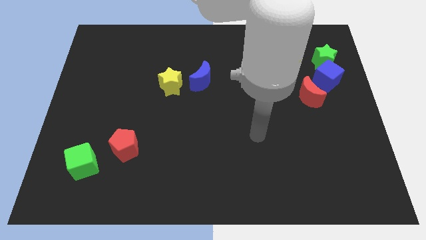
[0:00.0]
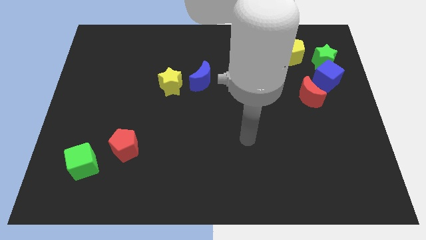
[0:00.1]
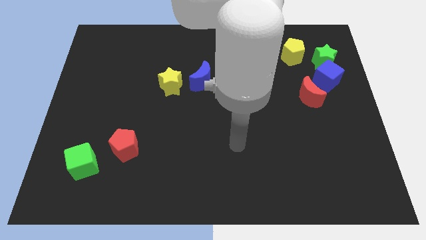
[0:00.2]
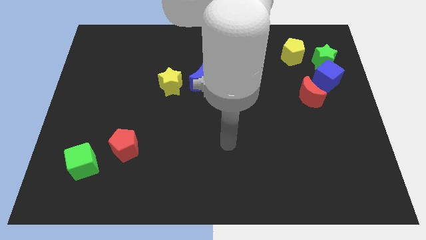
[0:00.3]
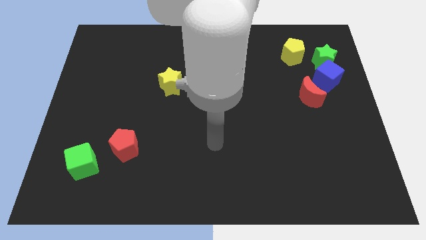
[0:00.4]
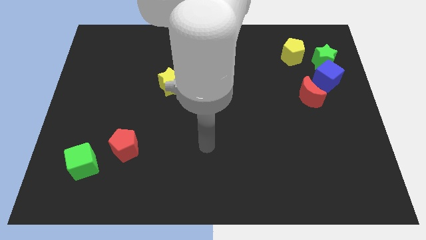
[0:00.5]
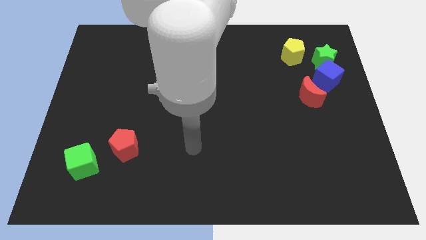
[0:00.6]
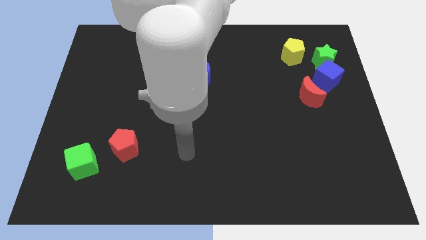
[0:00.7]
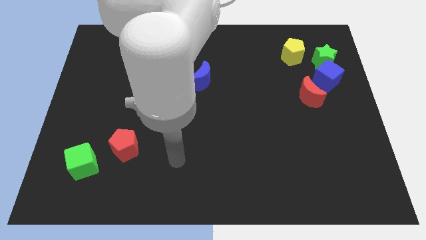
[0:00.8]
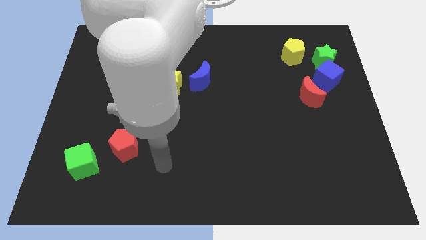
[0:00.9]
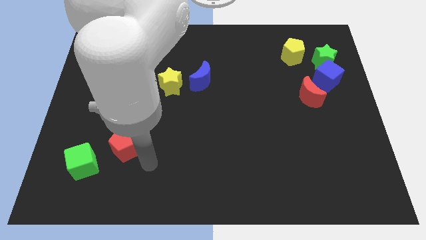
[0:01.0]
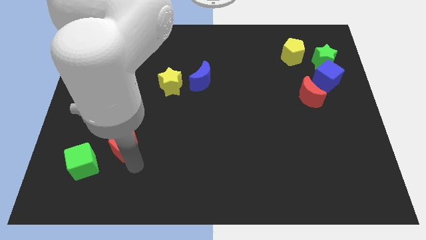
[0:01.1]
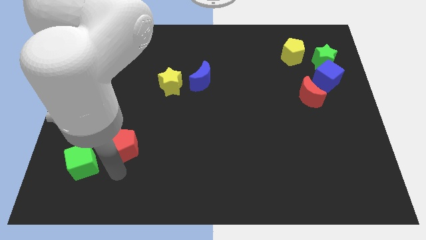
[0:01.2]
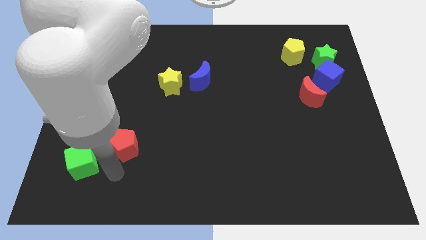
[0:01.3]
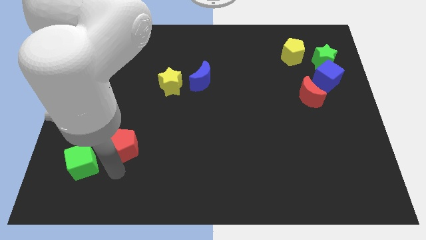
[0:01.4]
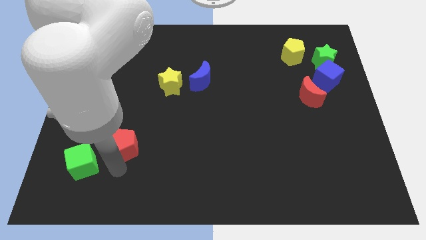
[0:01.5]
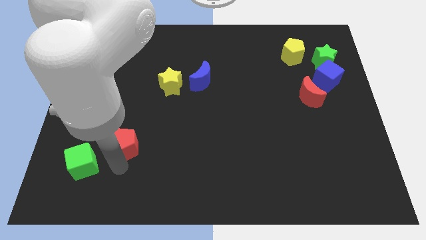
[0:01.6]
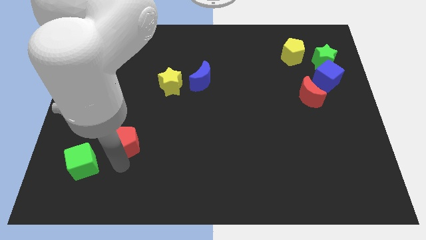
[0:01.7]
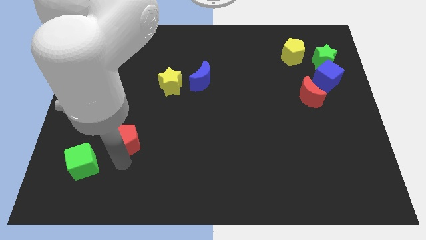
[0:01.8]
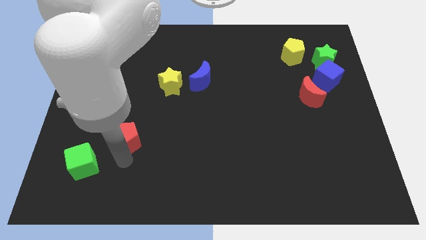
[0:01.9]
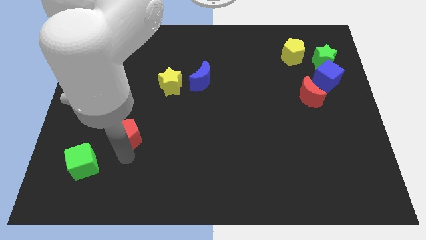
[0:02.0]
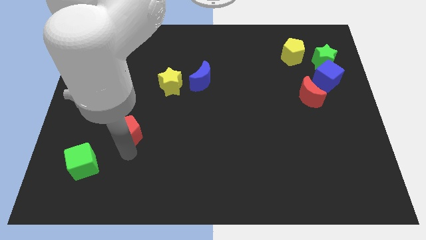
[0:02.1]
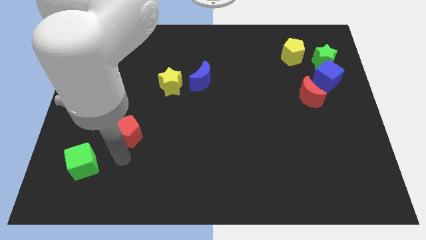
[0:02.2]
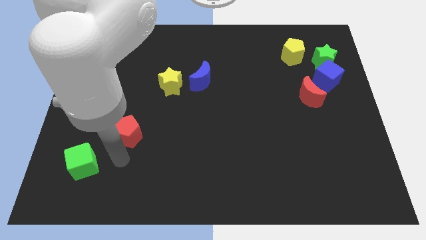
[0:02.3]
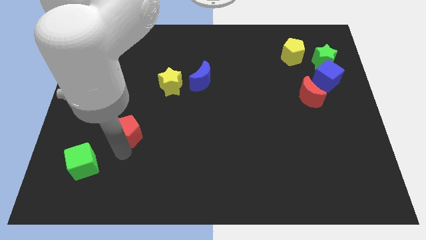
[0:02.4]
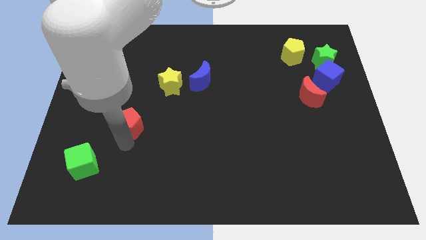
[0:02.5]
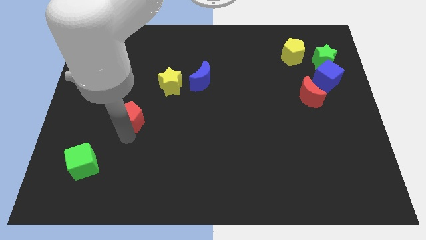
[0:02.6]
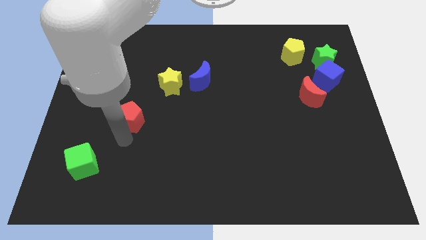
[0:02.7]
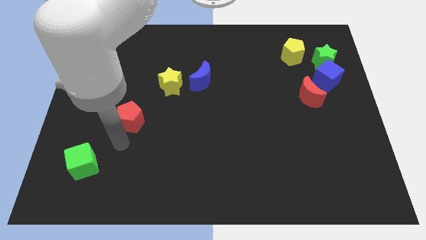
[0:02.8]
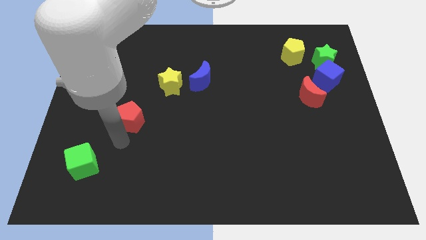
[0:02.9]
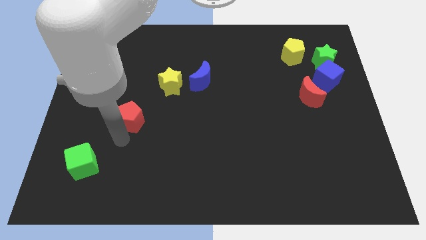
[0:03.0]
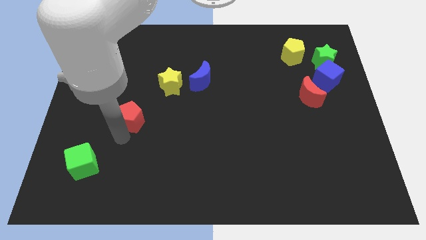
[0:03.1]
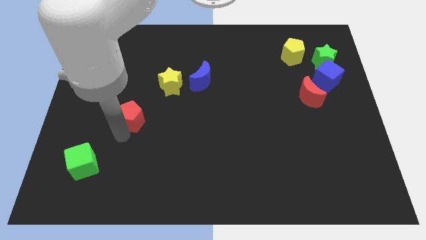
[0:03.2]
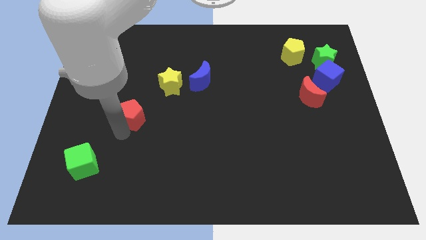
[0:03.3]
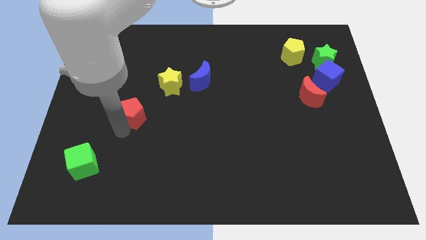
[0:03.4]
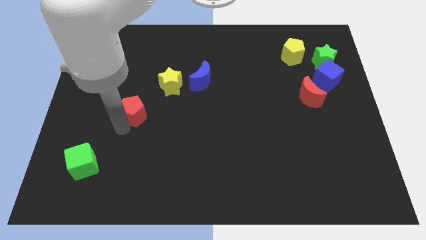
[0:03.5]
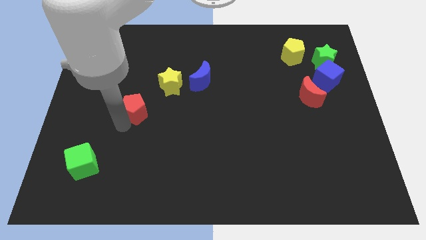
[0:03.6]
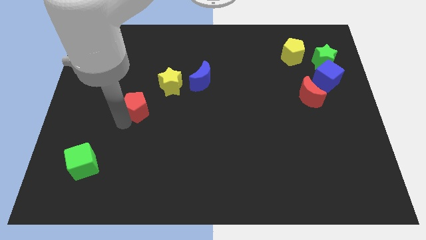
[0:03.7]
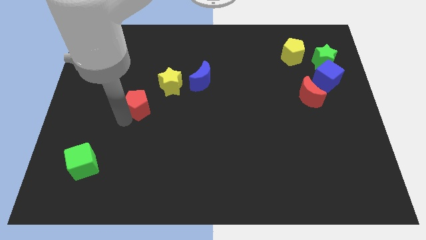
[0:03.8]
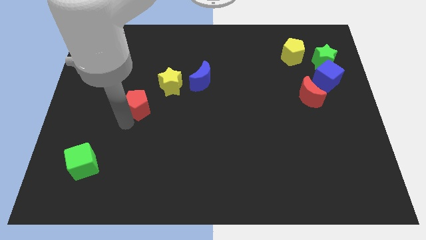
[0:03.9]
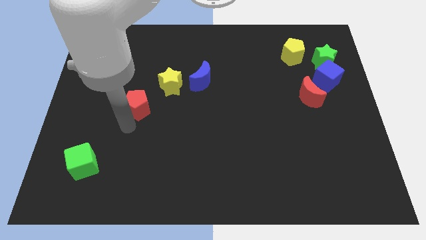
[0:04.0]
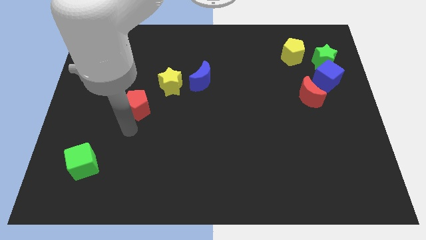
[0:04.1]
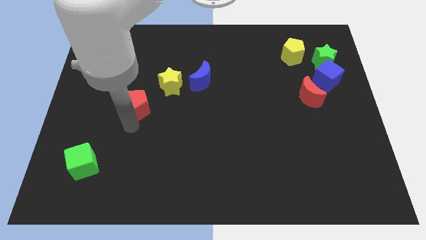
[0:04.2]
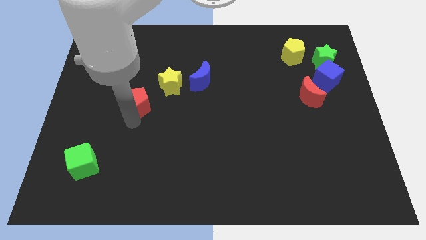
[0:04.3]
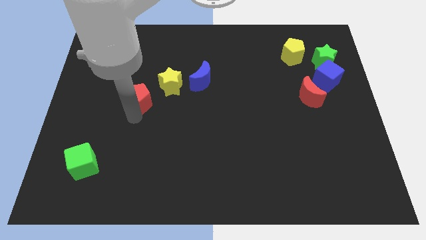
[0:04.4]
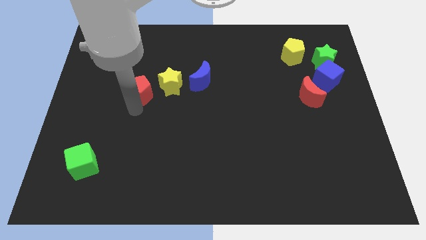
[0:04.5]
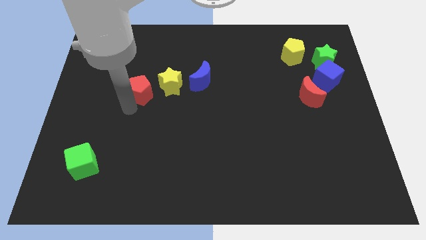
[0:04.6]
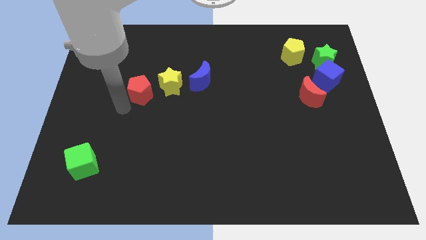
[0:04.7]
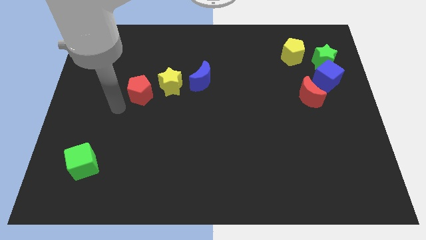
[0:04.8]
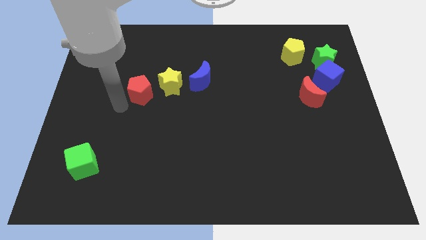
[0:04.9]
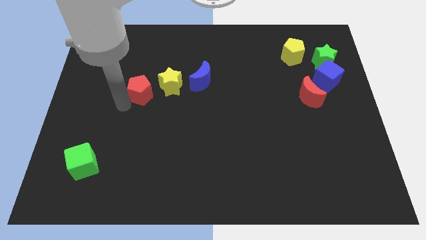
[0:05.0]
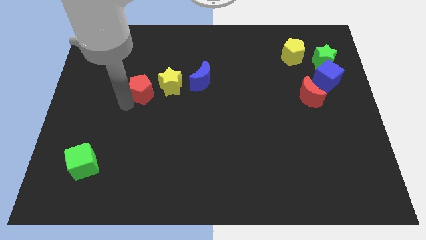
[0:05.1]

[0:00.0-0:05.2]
slide the red pentagon to the left of the blue moon

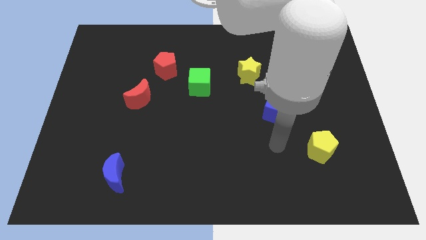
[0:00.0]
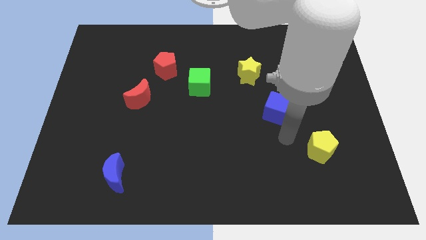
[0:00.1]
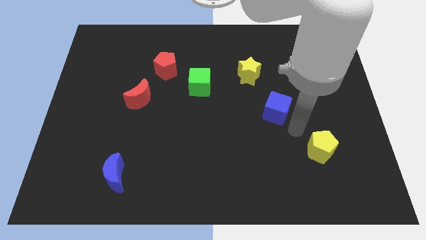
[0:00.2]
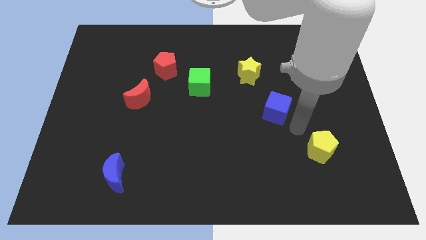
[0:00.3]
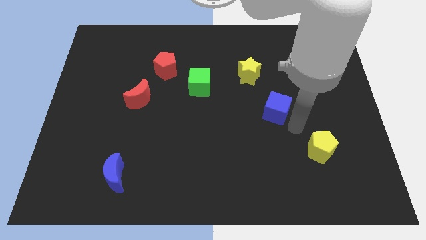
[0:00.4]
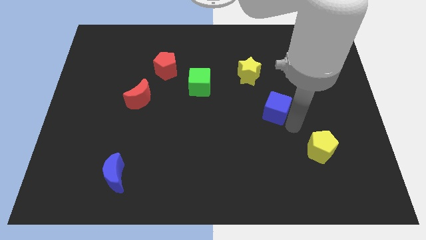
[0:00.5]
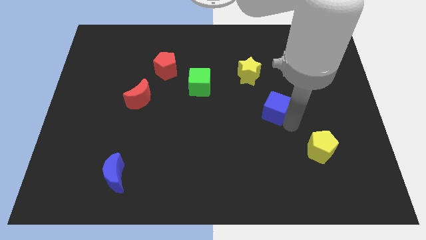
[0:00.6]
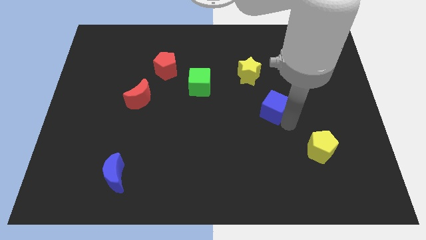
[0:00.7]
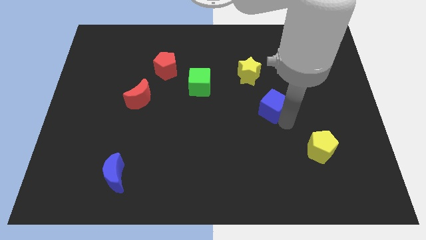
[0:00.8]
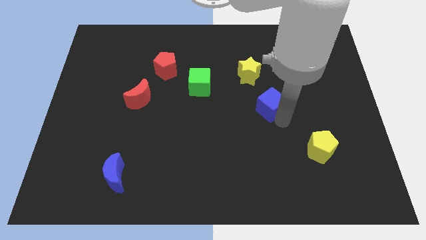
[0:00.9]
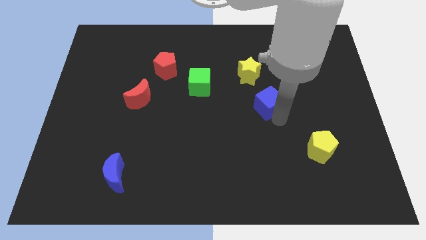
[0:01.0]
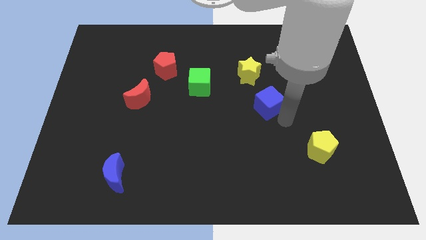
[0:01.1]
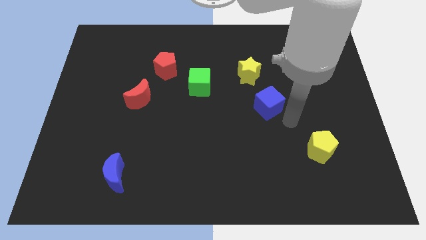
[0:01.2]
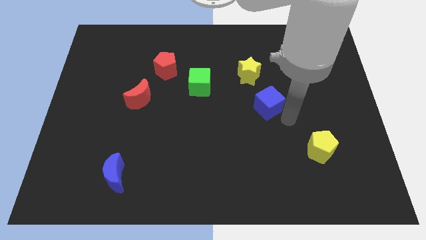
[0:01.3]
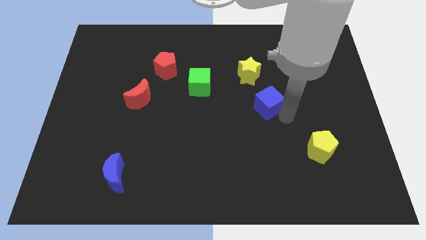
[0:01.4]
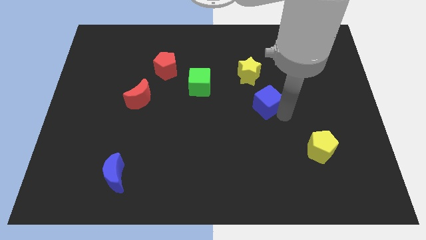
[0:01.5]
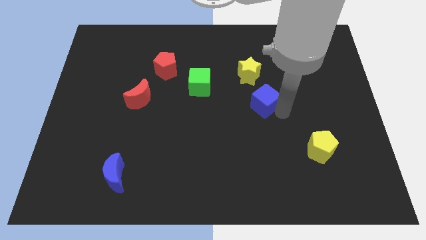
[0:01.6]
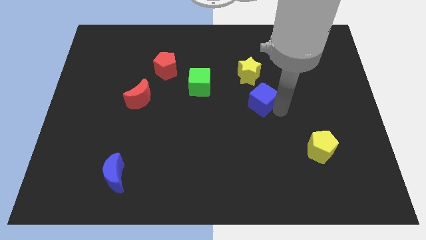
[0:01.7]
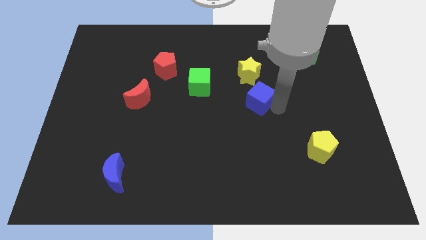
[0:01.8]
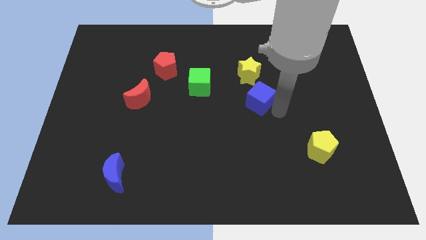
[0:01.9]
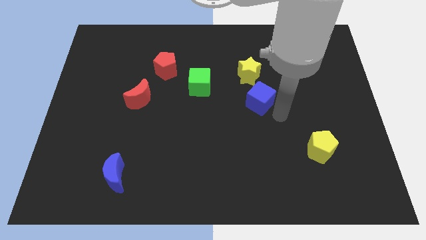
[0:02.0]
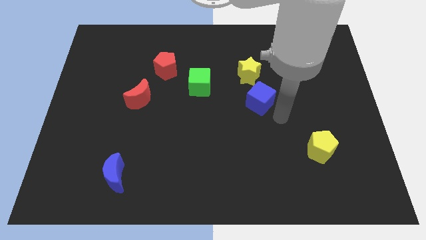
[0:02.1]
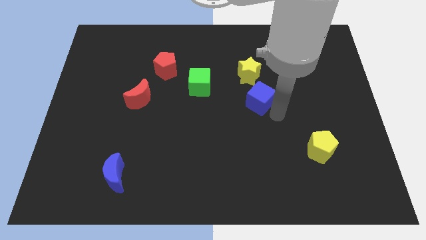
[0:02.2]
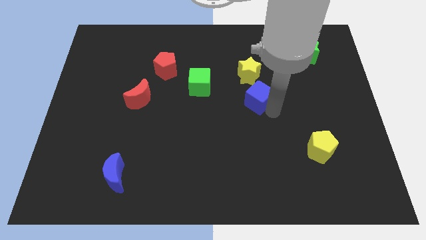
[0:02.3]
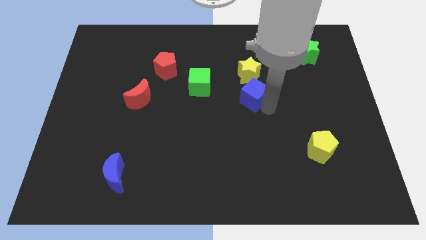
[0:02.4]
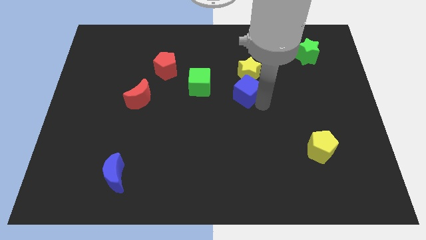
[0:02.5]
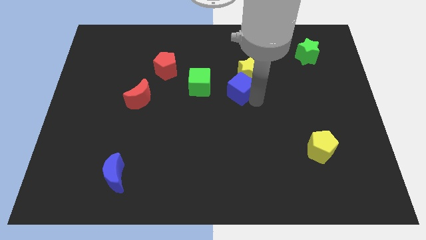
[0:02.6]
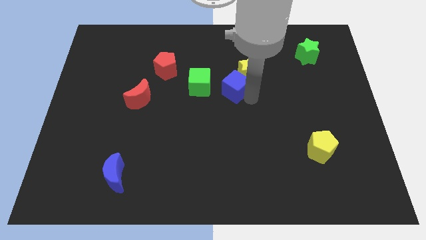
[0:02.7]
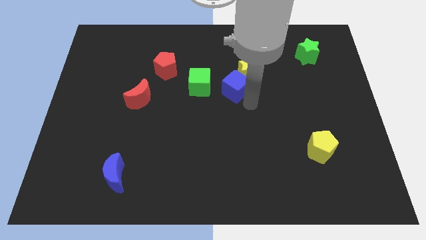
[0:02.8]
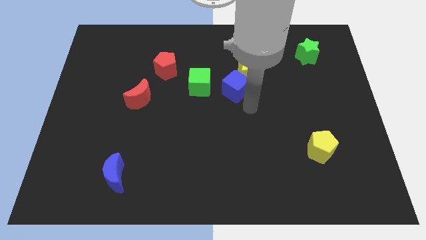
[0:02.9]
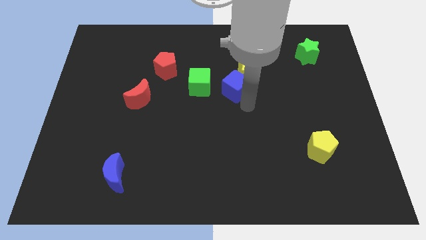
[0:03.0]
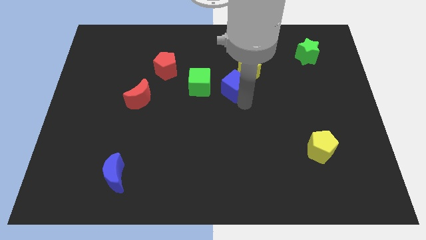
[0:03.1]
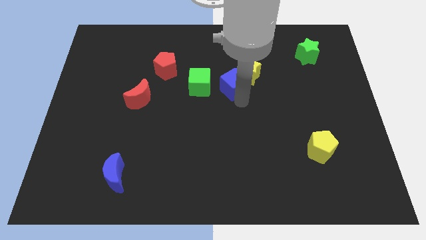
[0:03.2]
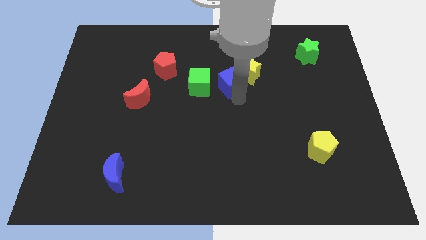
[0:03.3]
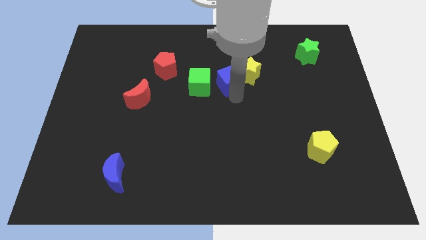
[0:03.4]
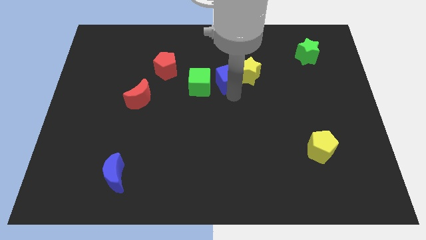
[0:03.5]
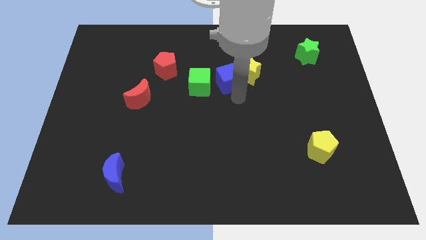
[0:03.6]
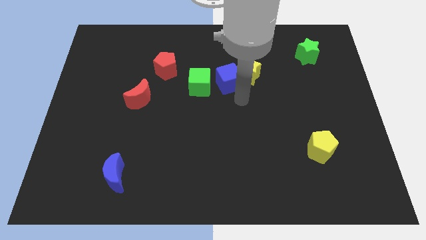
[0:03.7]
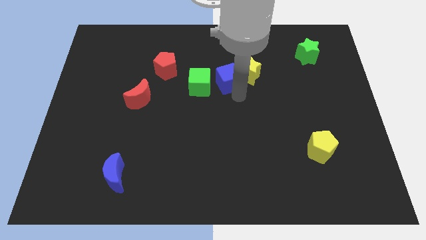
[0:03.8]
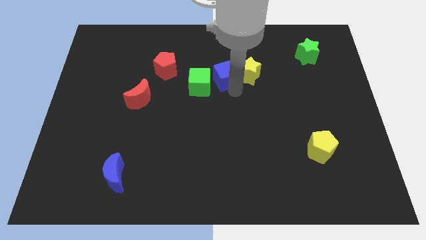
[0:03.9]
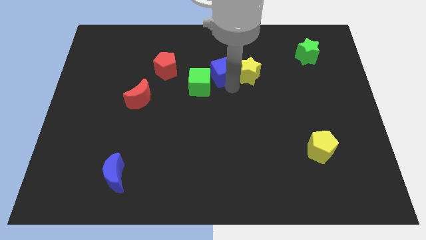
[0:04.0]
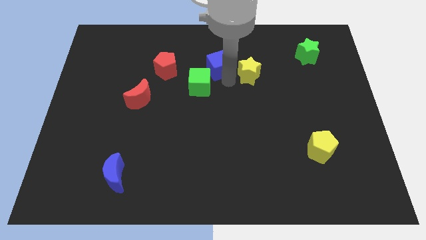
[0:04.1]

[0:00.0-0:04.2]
put the blue cube to the top of the green cube
